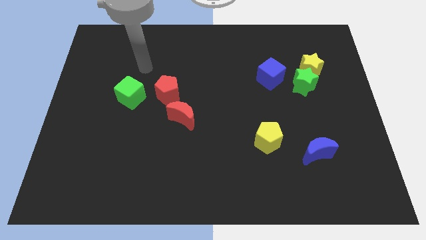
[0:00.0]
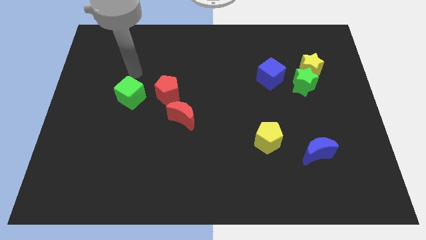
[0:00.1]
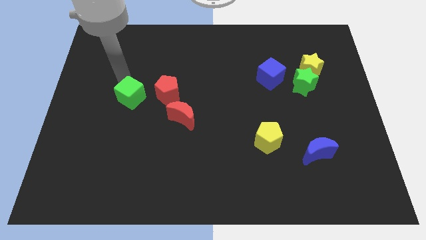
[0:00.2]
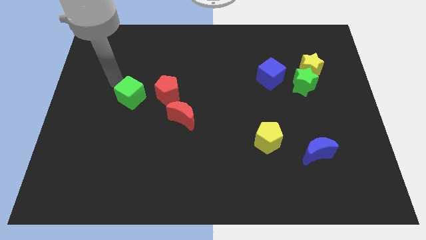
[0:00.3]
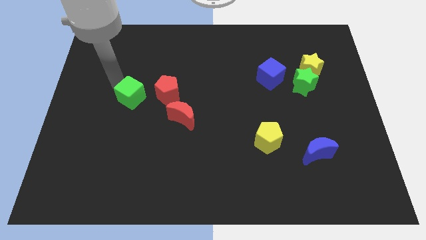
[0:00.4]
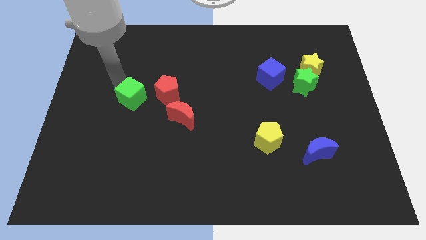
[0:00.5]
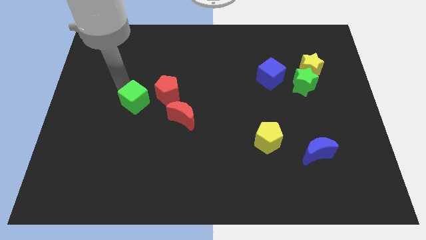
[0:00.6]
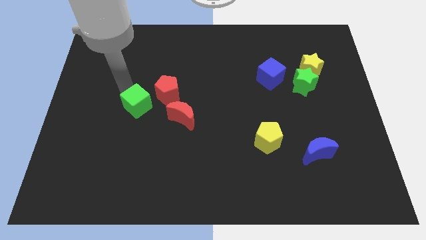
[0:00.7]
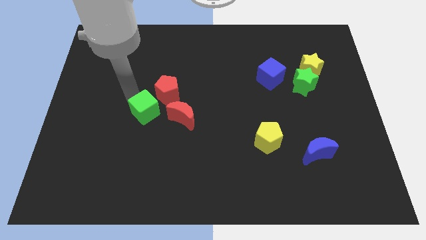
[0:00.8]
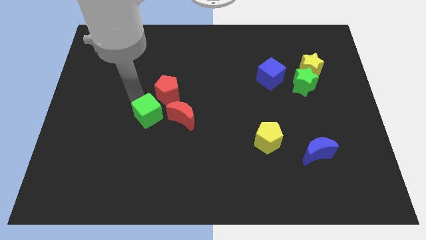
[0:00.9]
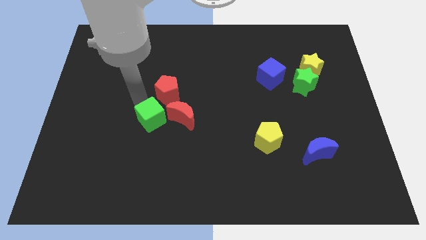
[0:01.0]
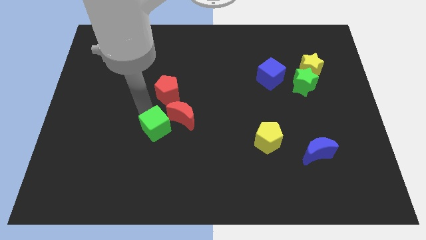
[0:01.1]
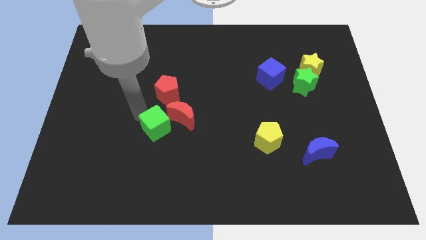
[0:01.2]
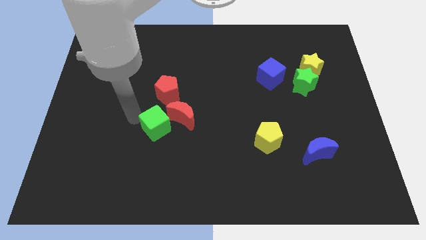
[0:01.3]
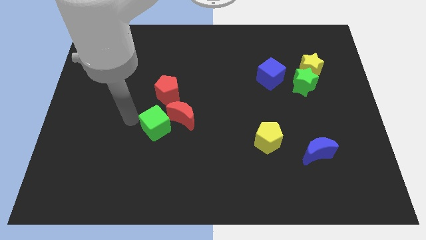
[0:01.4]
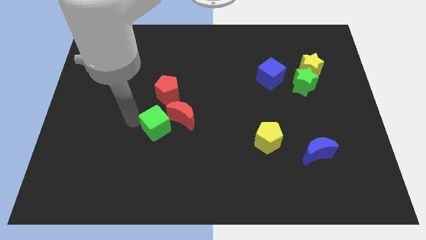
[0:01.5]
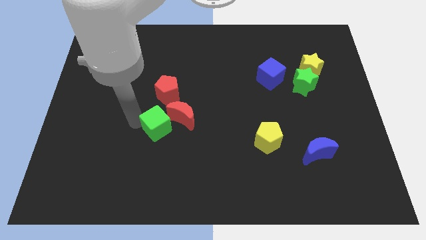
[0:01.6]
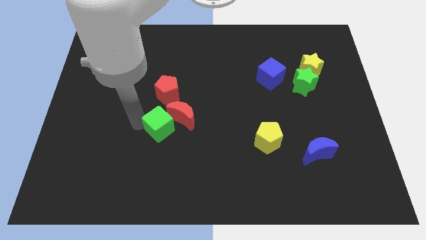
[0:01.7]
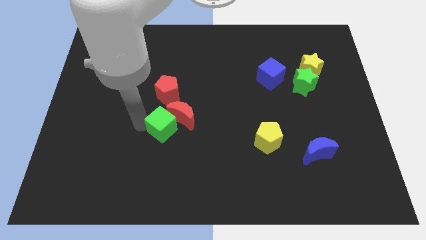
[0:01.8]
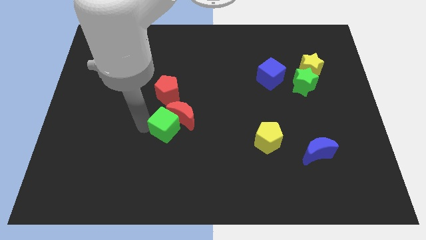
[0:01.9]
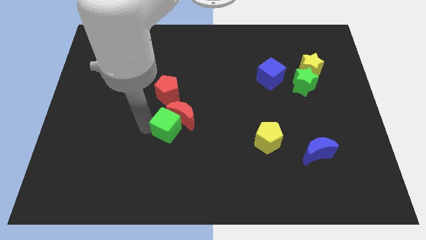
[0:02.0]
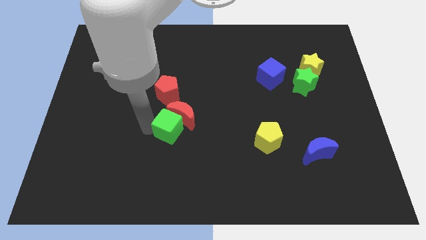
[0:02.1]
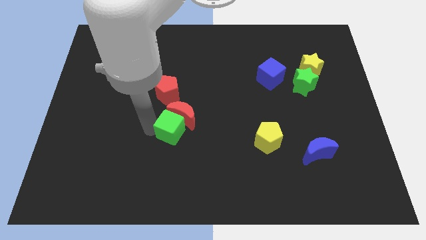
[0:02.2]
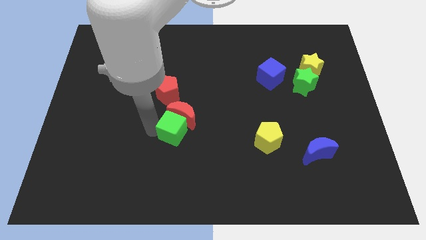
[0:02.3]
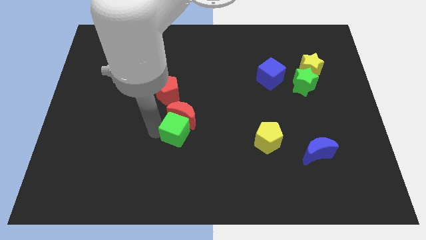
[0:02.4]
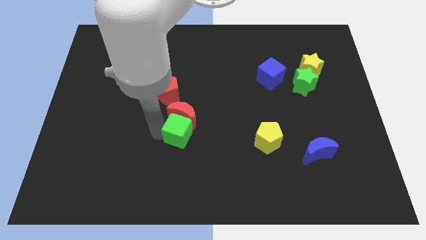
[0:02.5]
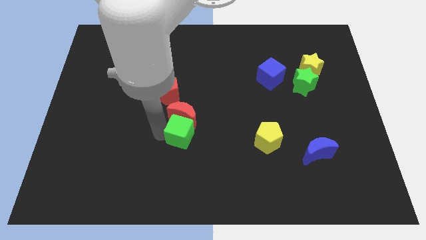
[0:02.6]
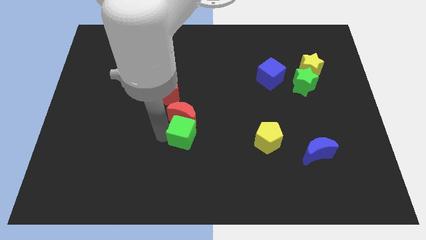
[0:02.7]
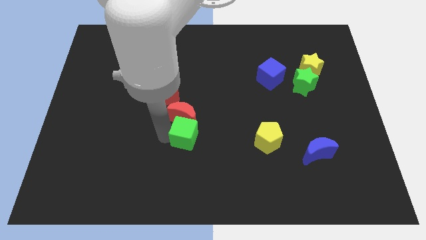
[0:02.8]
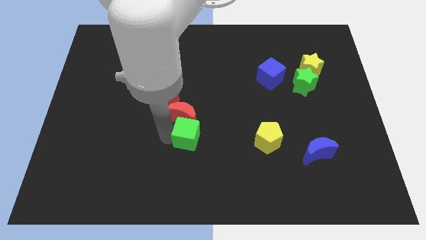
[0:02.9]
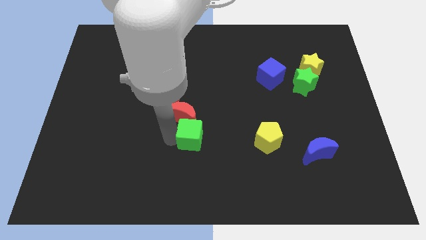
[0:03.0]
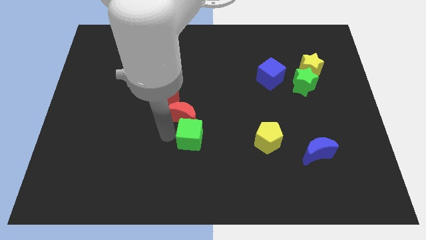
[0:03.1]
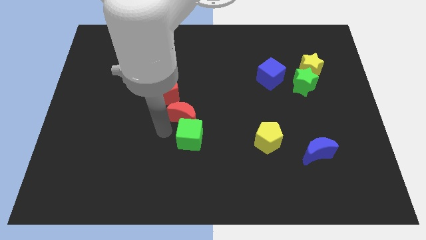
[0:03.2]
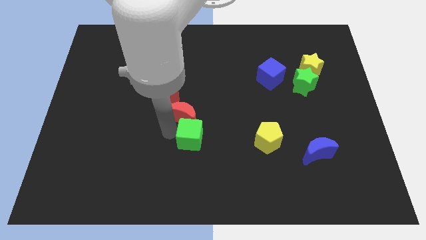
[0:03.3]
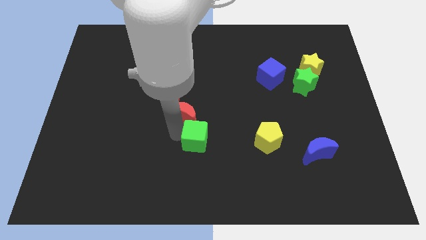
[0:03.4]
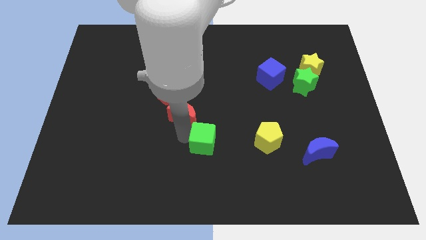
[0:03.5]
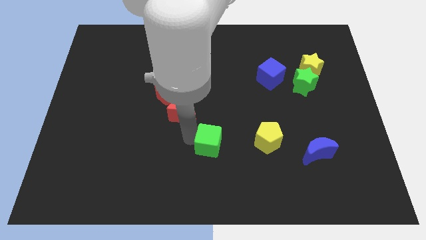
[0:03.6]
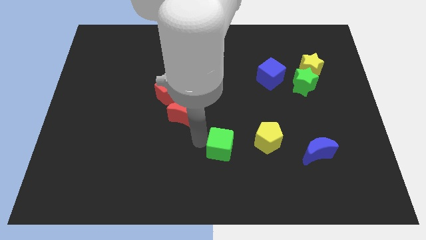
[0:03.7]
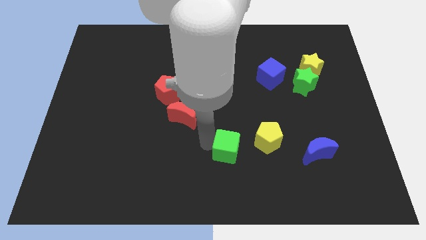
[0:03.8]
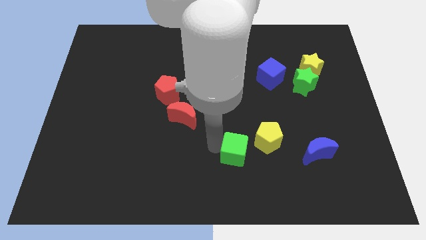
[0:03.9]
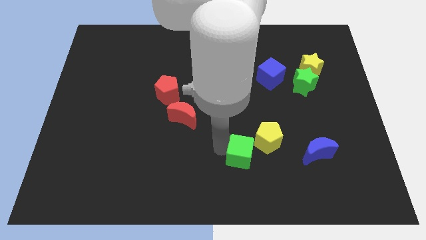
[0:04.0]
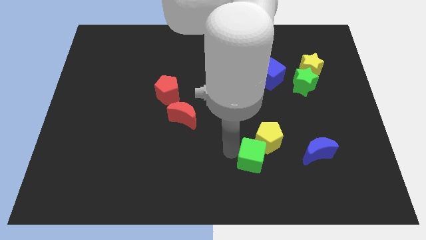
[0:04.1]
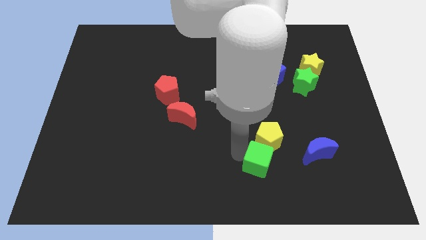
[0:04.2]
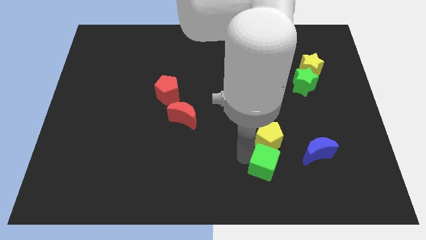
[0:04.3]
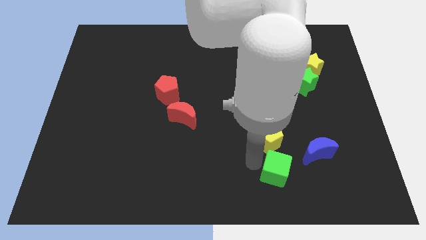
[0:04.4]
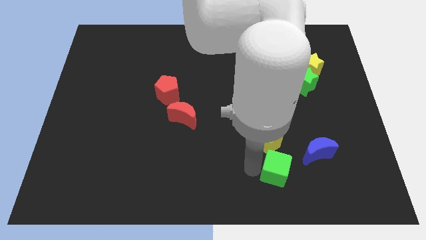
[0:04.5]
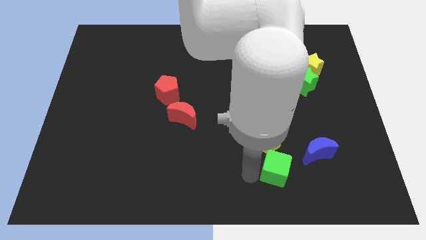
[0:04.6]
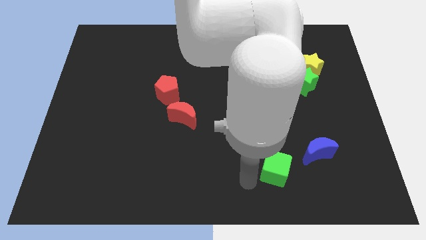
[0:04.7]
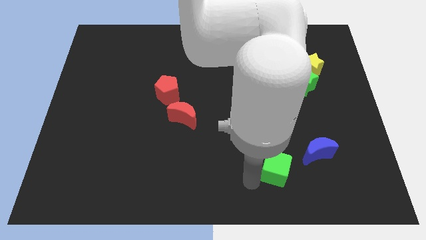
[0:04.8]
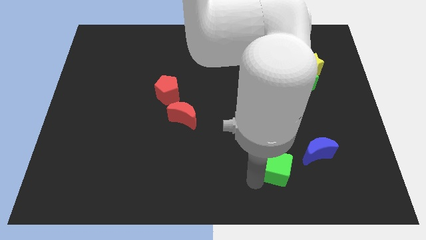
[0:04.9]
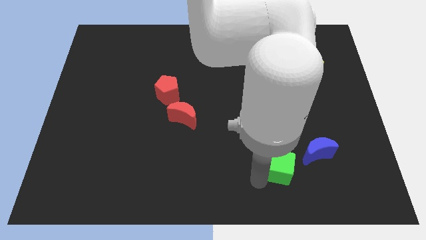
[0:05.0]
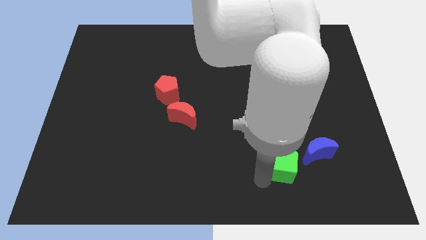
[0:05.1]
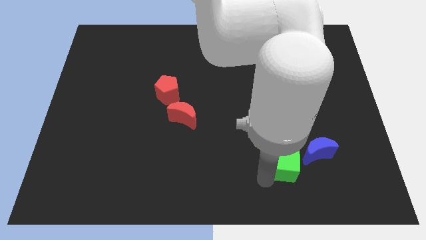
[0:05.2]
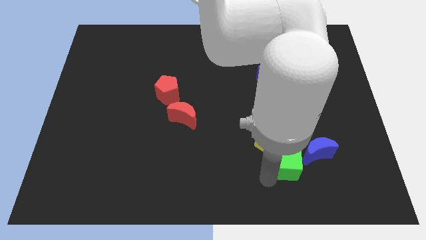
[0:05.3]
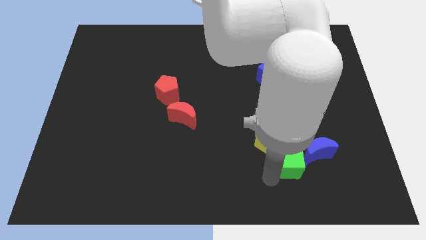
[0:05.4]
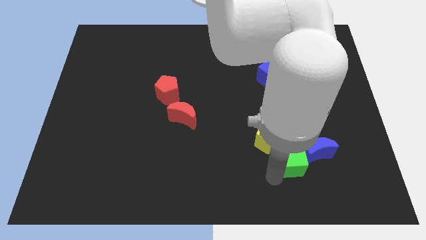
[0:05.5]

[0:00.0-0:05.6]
move the green cube to the blue moon

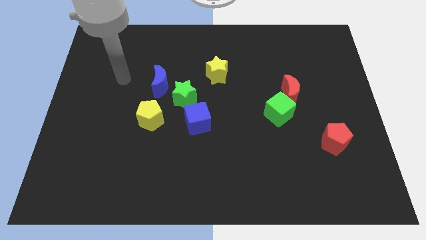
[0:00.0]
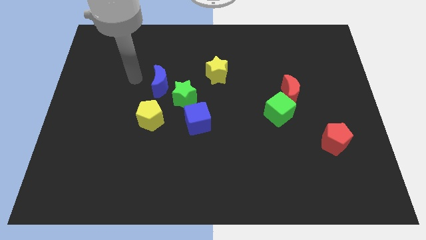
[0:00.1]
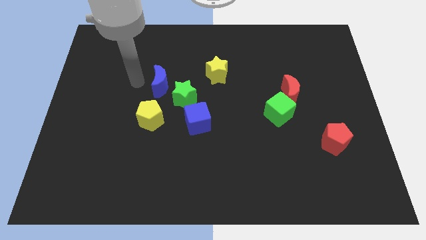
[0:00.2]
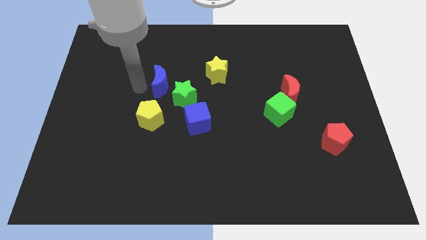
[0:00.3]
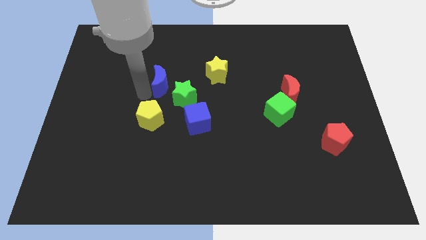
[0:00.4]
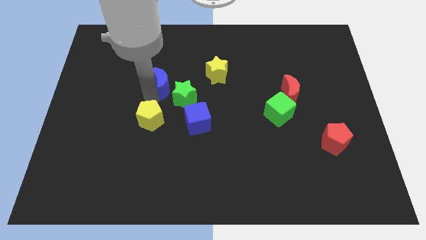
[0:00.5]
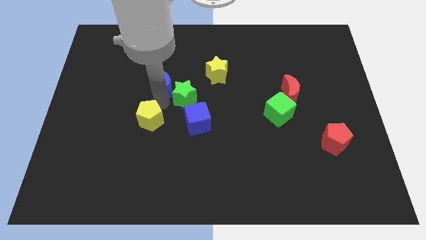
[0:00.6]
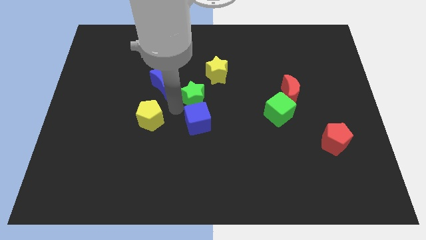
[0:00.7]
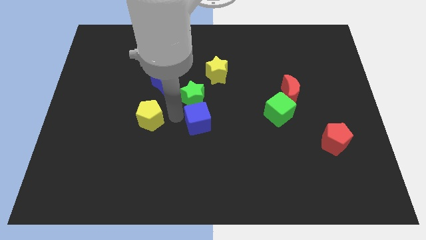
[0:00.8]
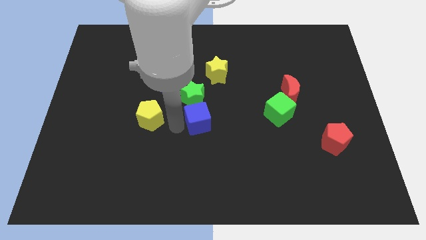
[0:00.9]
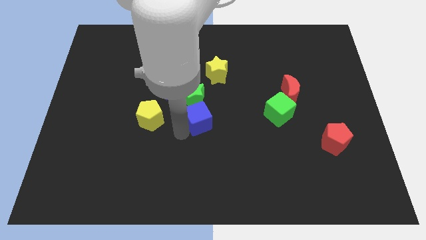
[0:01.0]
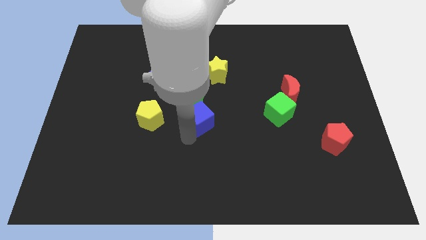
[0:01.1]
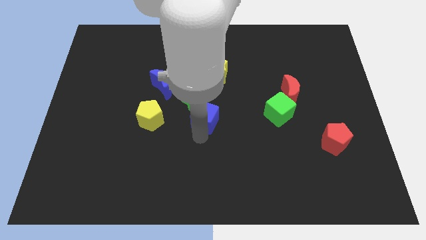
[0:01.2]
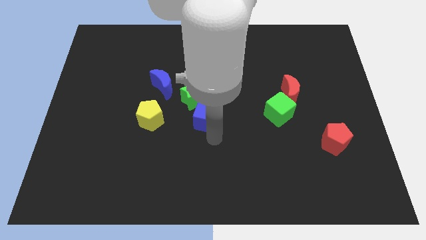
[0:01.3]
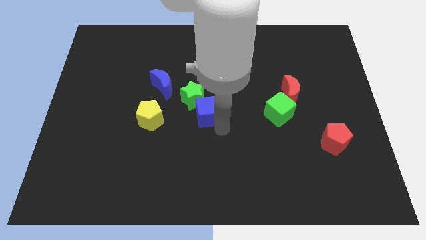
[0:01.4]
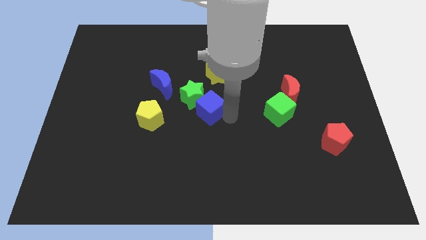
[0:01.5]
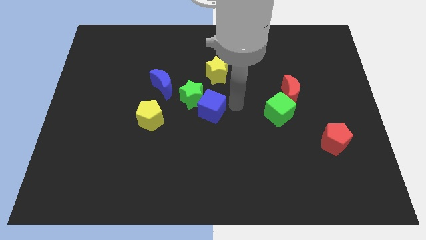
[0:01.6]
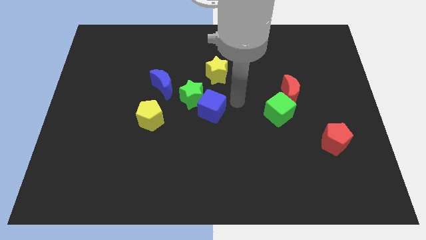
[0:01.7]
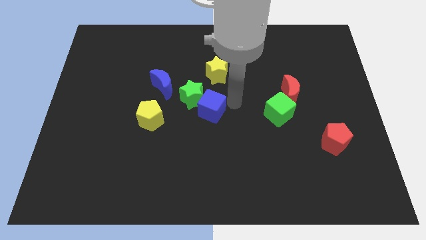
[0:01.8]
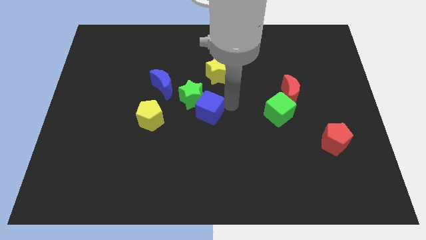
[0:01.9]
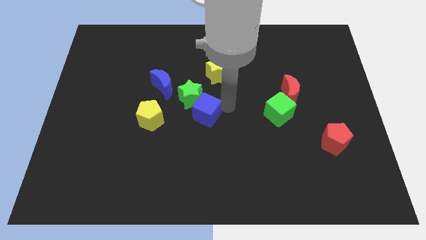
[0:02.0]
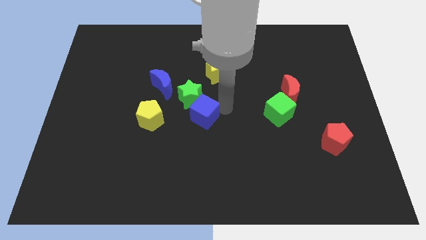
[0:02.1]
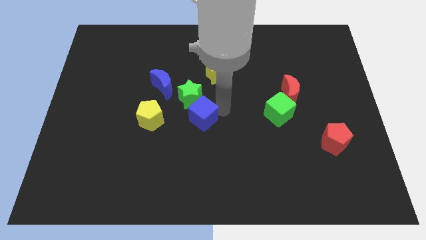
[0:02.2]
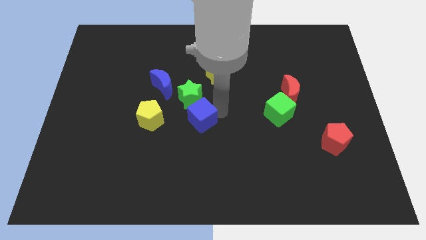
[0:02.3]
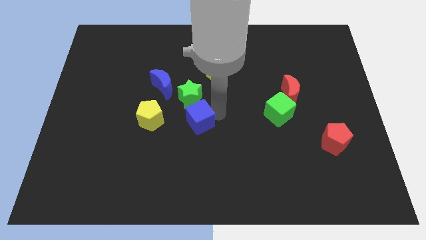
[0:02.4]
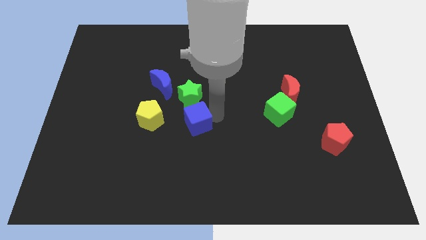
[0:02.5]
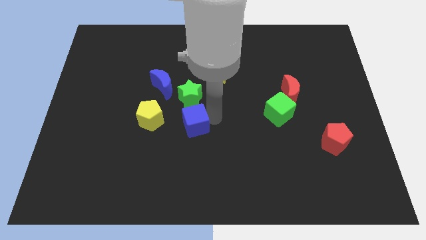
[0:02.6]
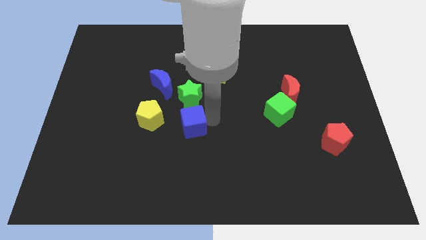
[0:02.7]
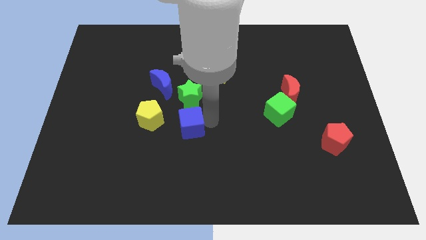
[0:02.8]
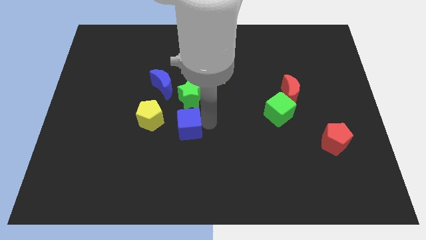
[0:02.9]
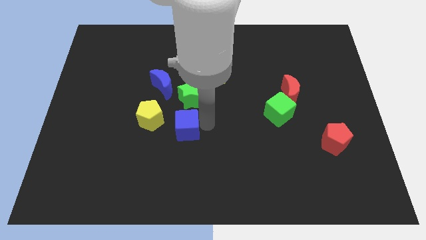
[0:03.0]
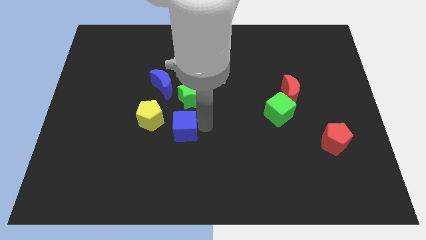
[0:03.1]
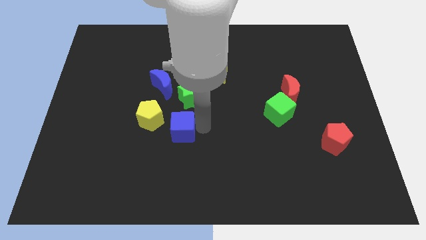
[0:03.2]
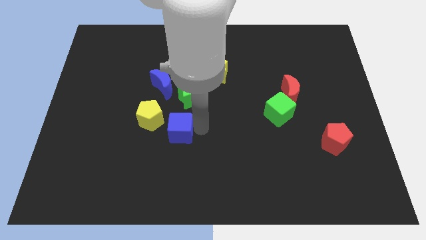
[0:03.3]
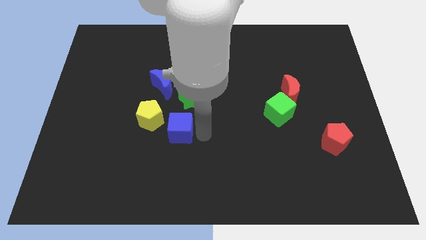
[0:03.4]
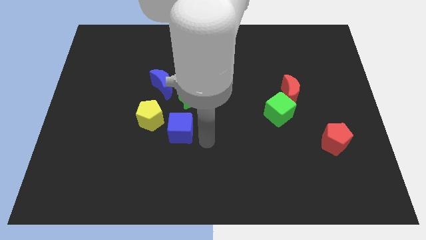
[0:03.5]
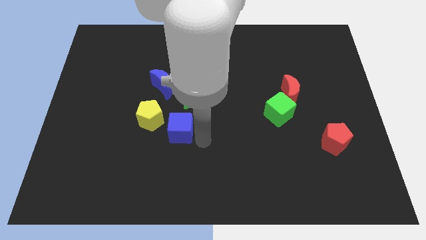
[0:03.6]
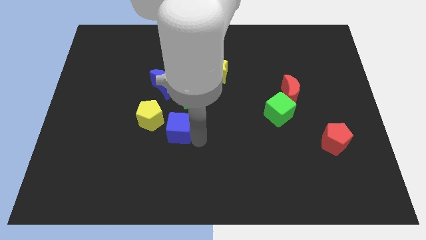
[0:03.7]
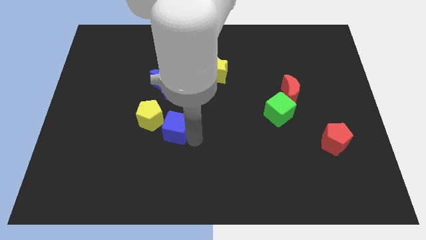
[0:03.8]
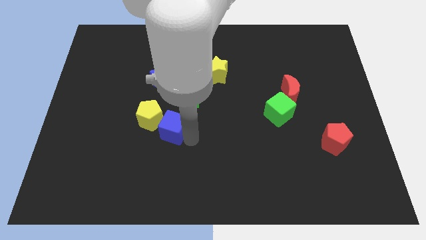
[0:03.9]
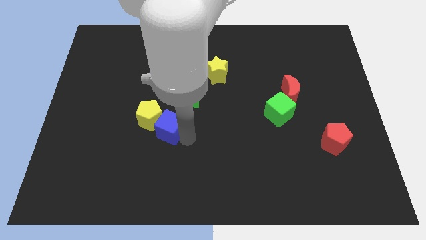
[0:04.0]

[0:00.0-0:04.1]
push the blue cube next to the yellow pentagon
